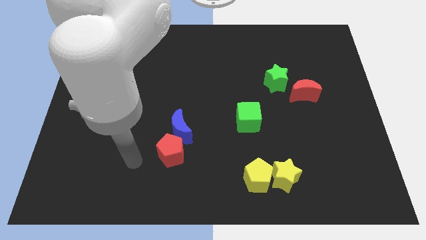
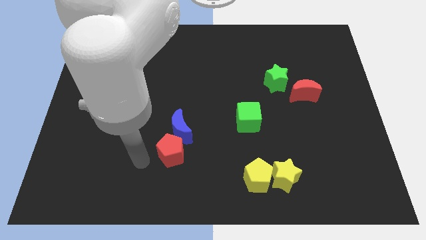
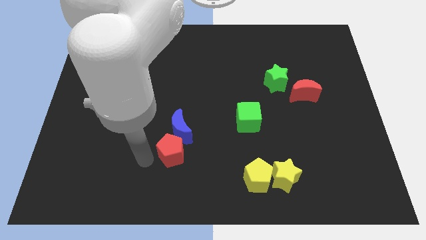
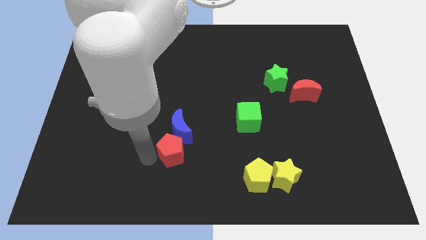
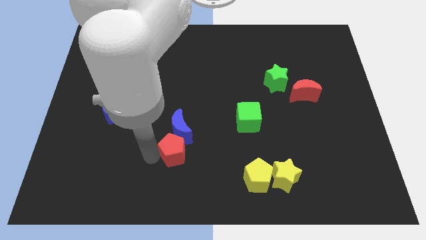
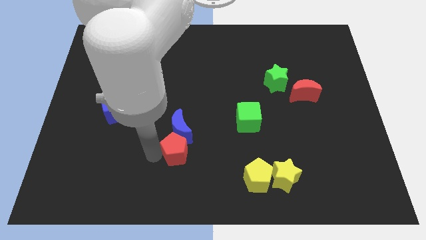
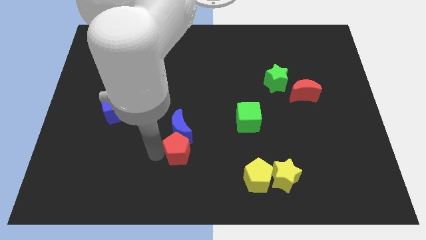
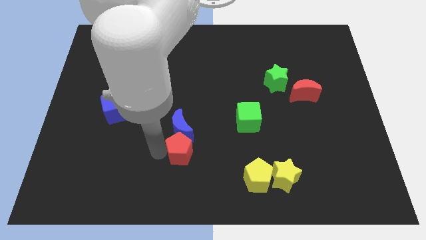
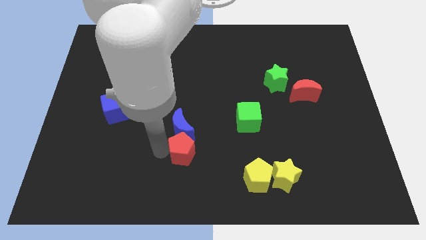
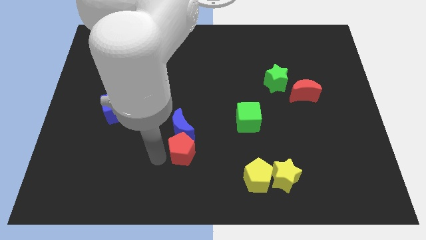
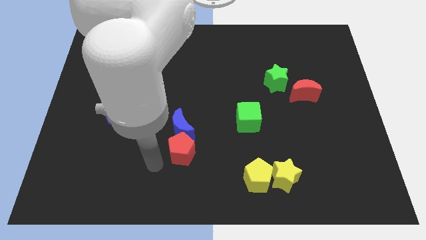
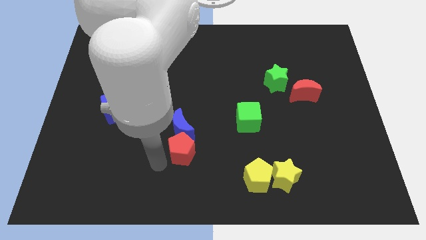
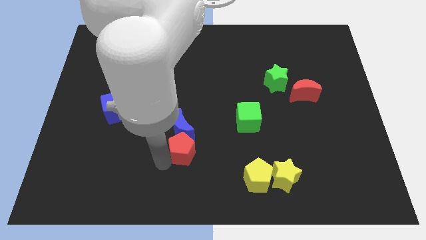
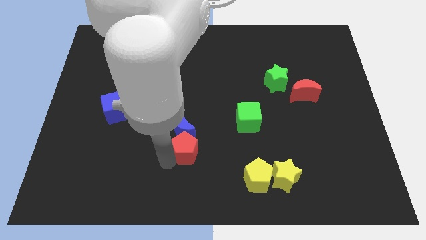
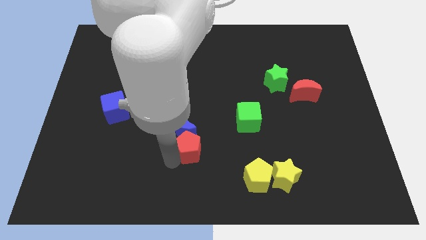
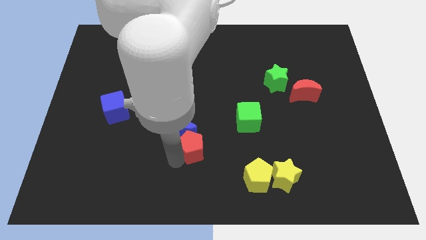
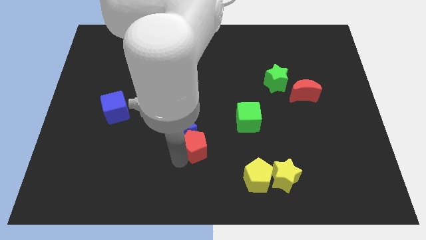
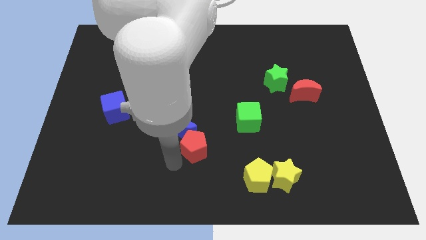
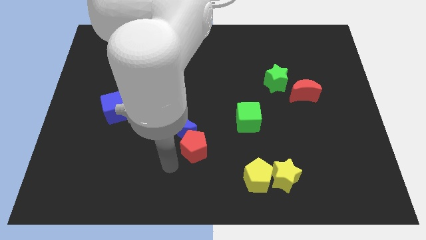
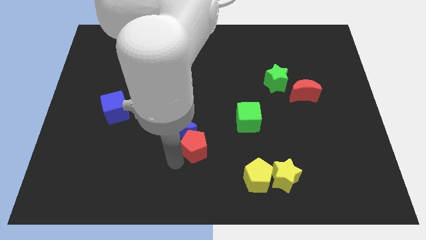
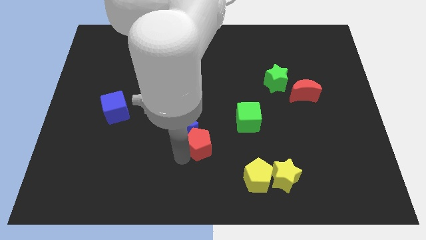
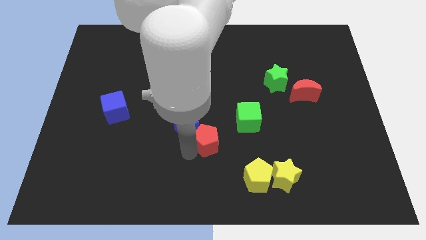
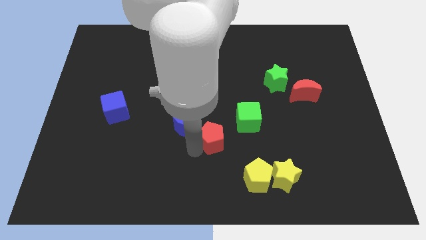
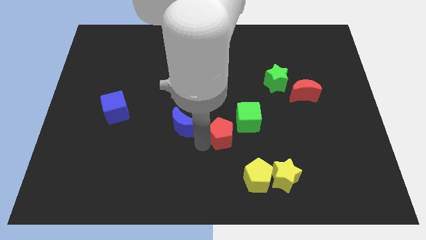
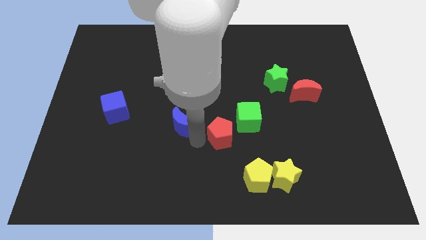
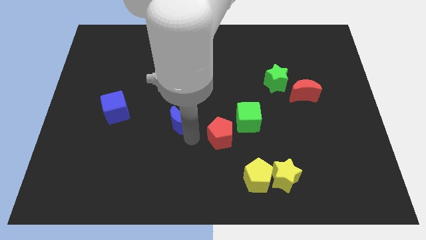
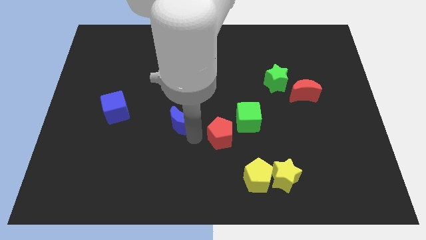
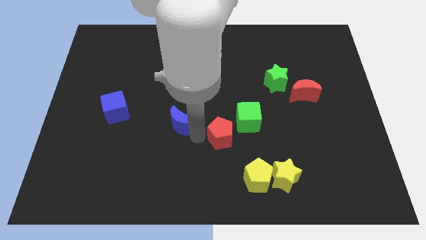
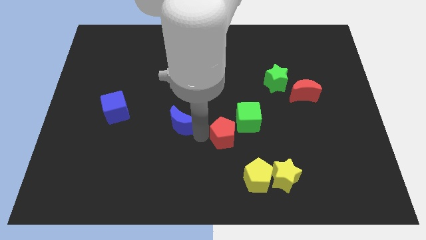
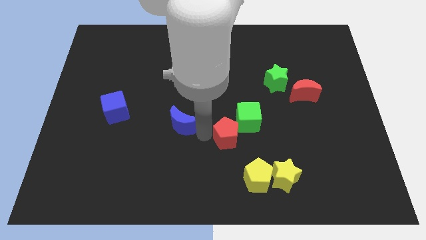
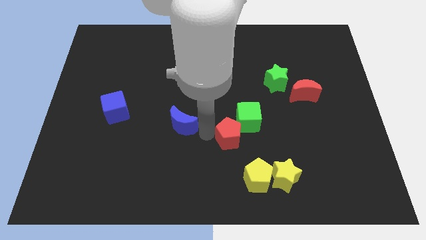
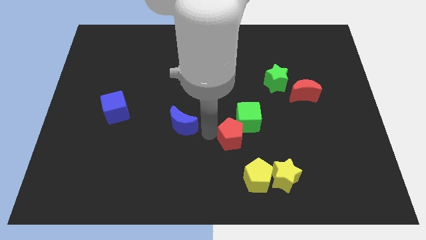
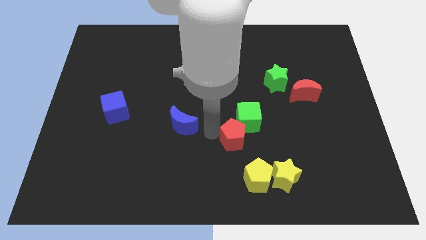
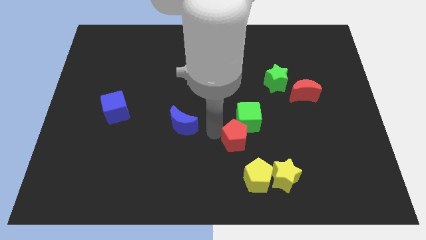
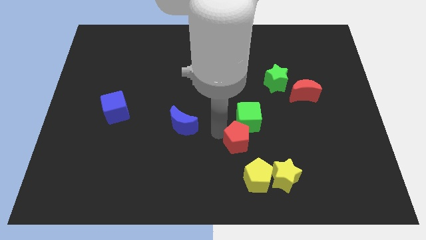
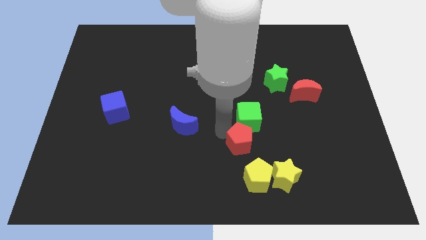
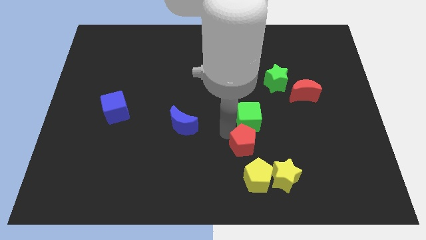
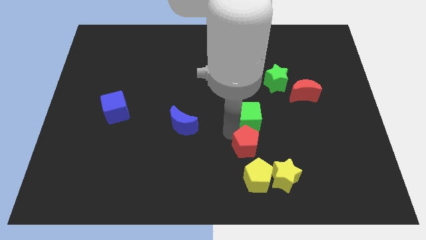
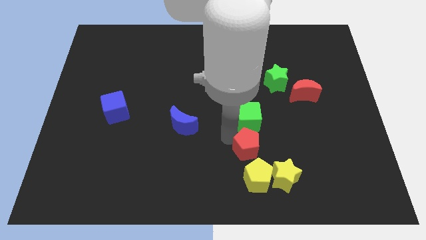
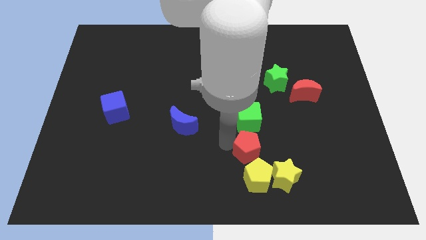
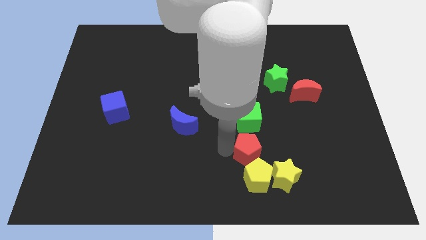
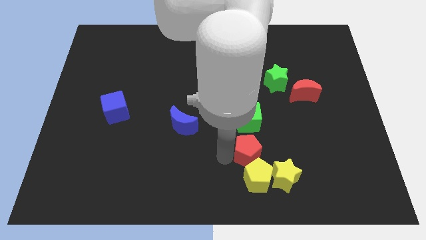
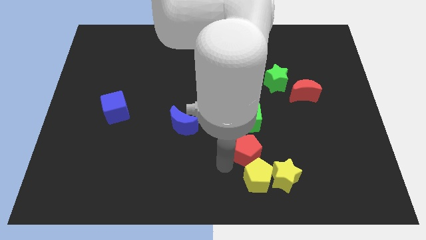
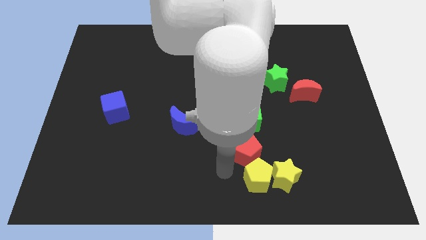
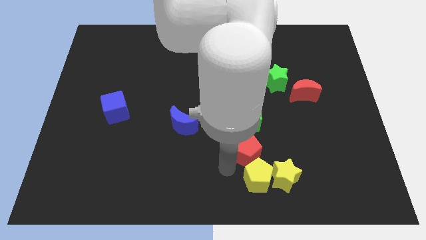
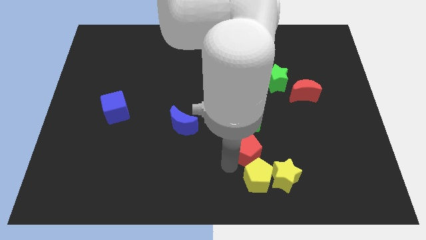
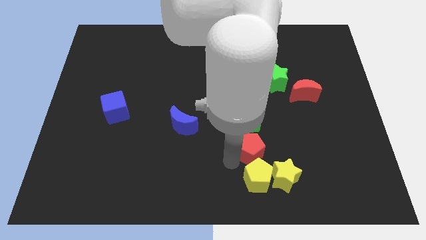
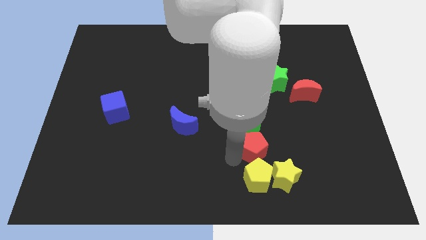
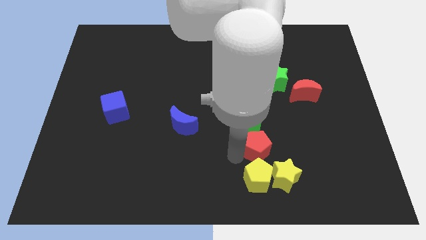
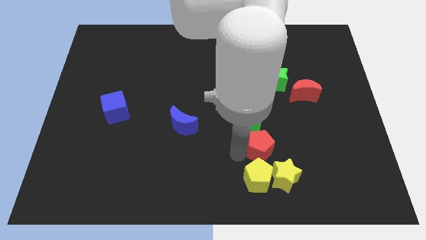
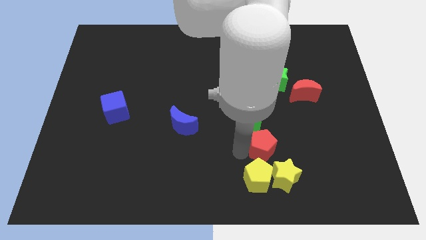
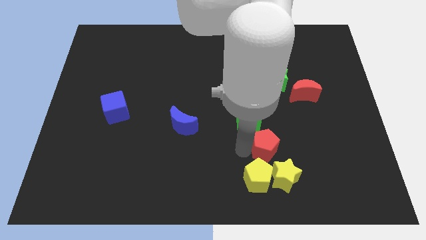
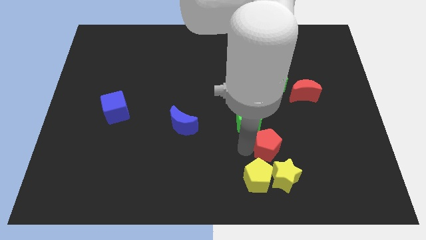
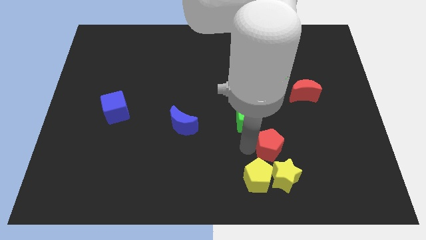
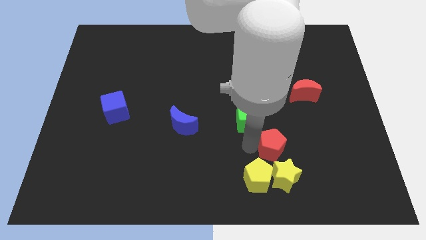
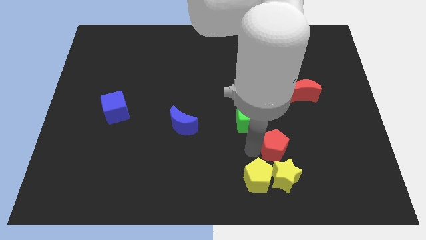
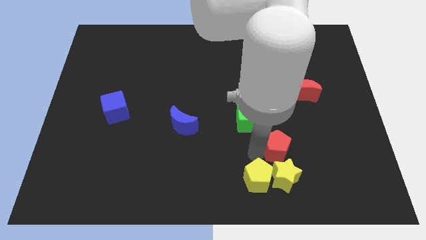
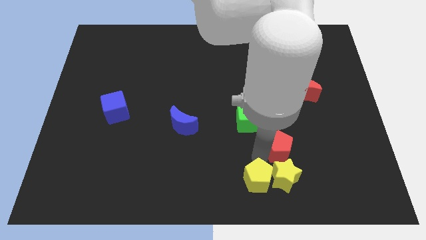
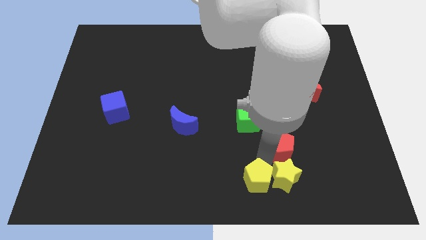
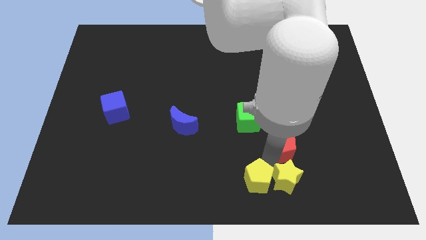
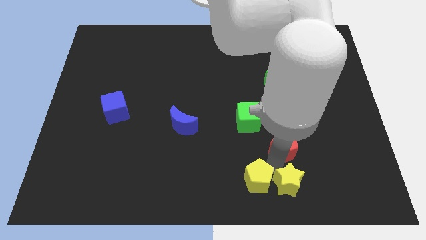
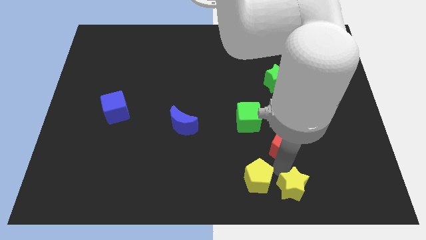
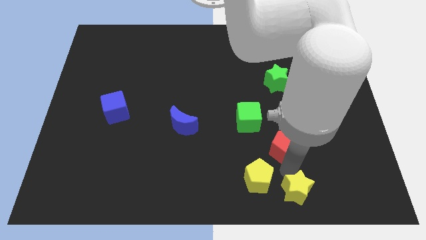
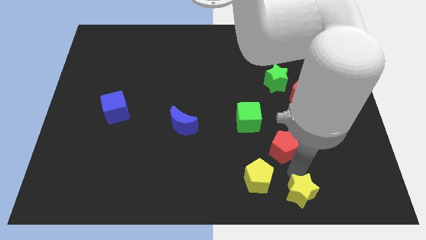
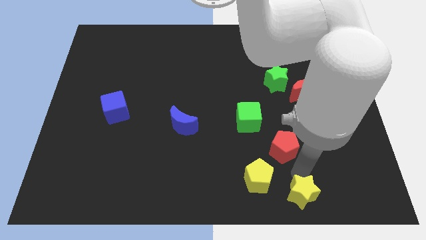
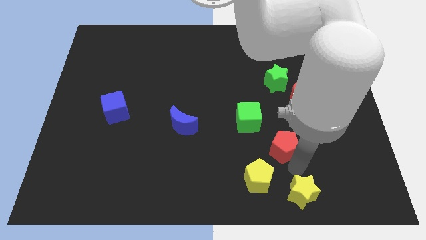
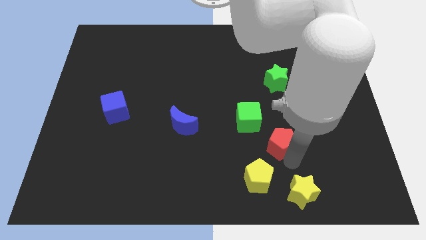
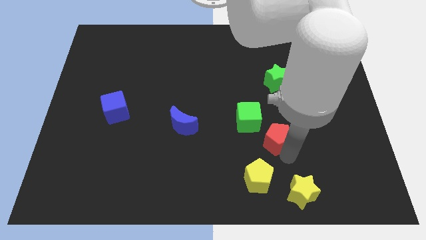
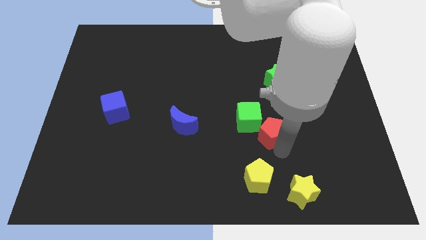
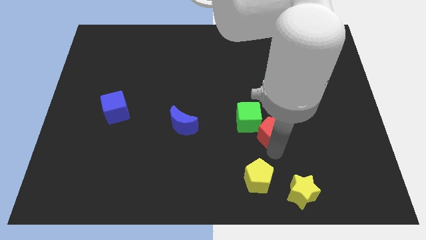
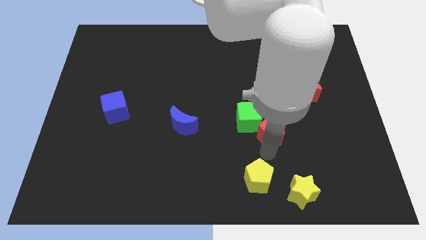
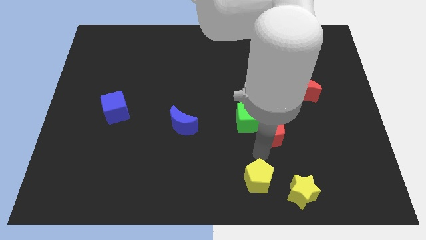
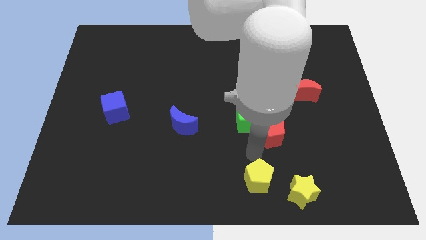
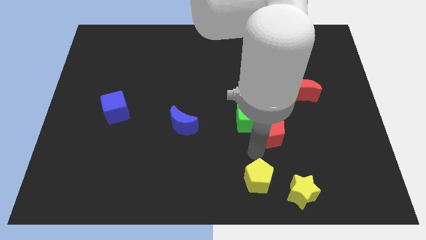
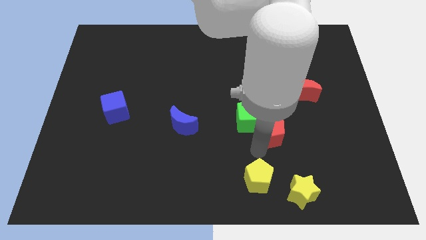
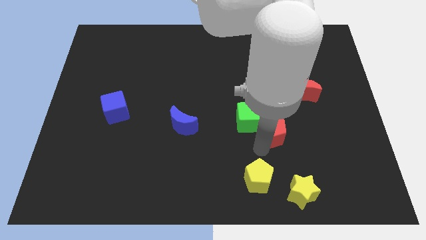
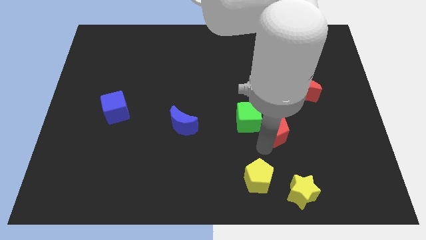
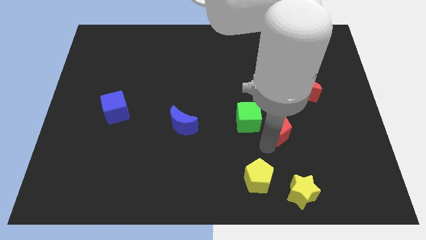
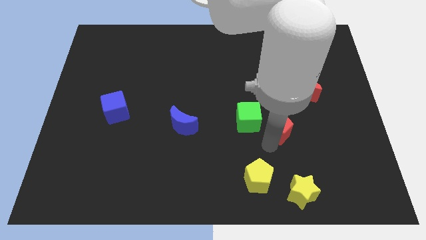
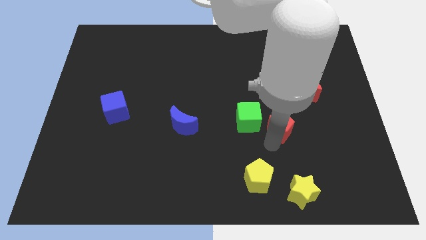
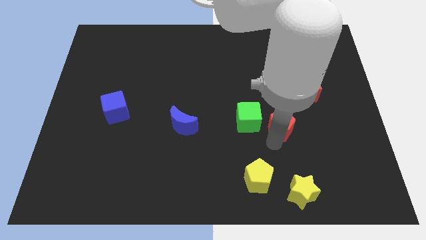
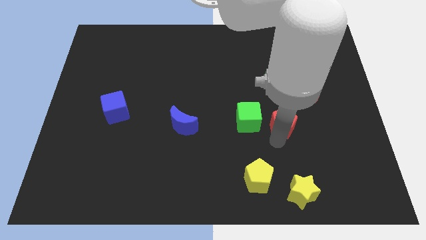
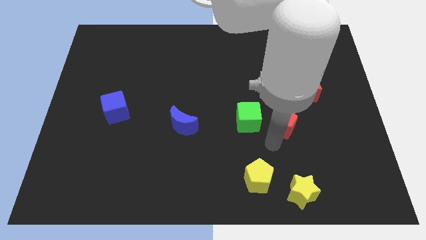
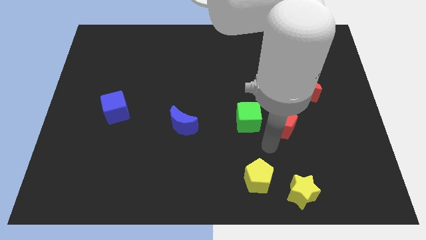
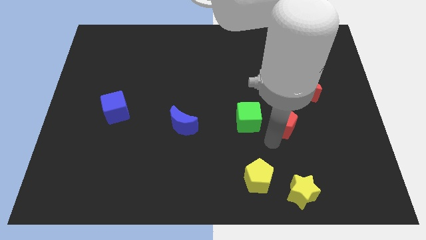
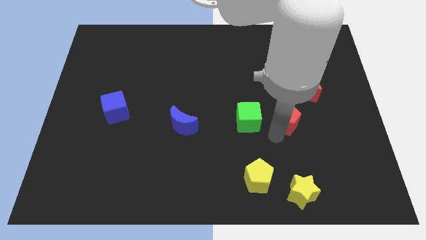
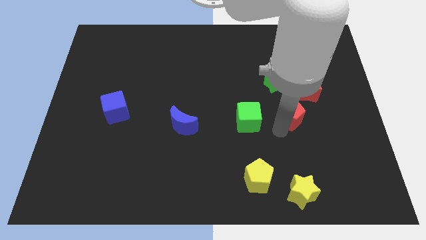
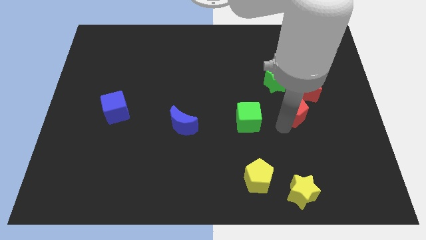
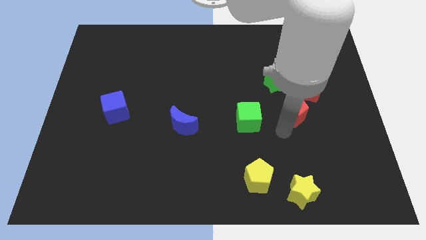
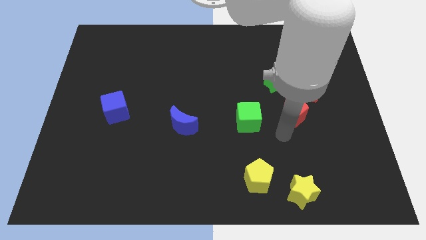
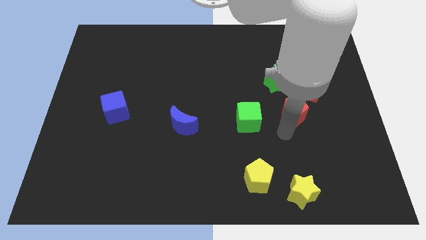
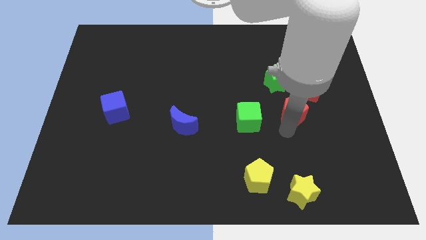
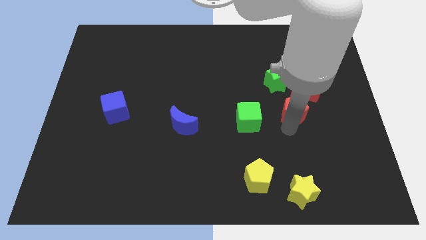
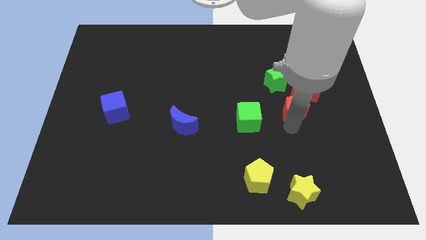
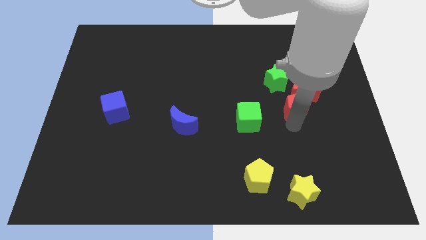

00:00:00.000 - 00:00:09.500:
put the red pentagon towards the red moon
